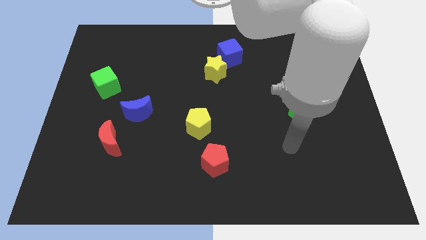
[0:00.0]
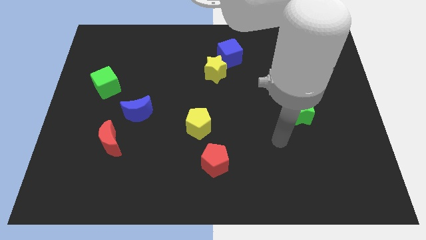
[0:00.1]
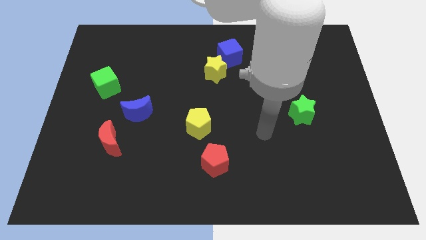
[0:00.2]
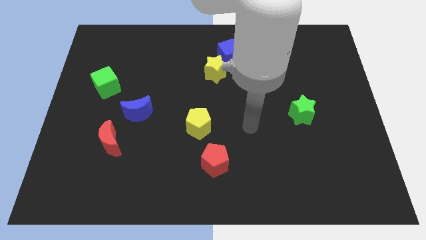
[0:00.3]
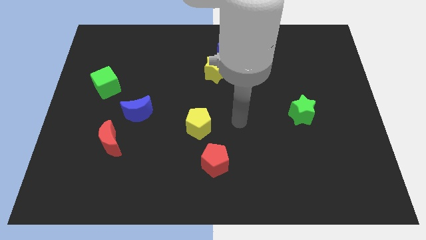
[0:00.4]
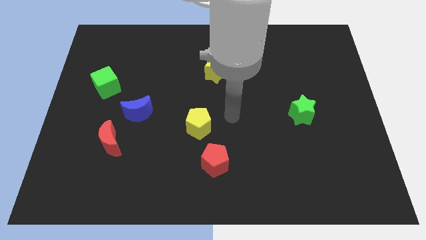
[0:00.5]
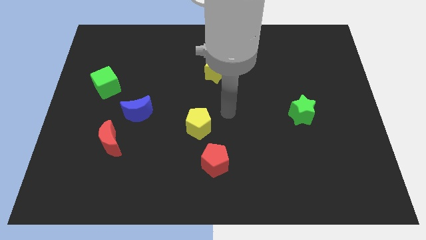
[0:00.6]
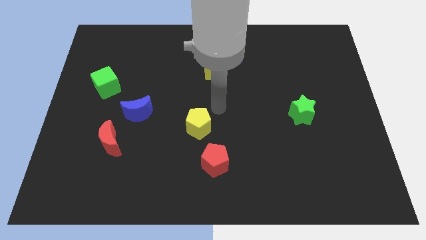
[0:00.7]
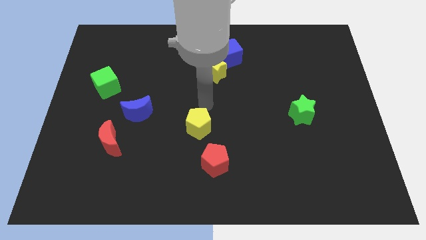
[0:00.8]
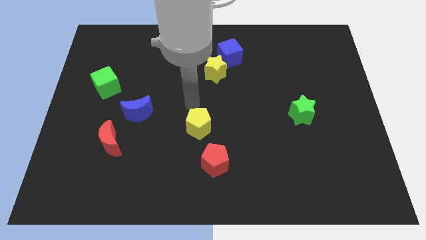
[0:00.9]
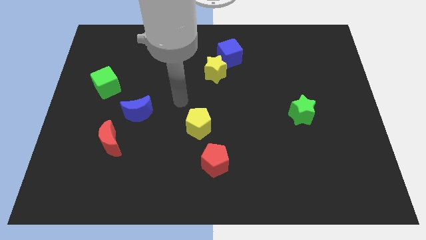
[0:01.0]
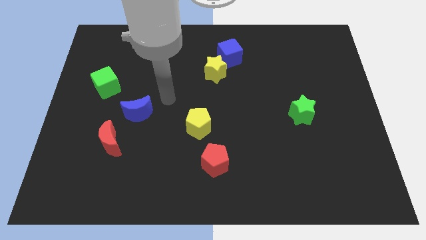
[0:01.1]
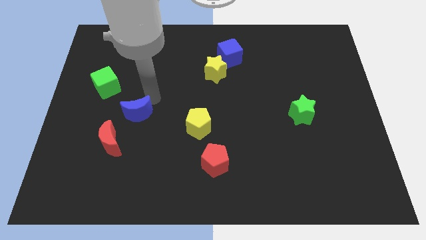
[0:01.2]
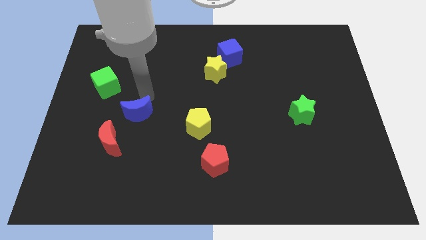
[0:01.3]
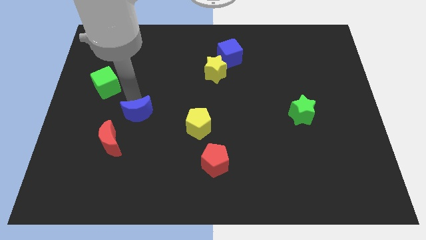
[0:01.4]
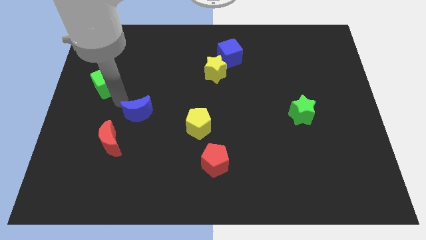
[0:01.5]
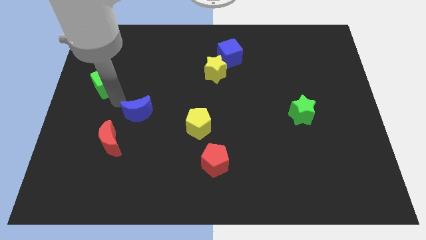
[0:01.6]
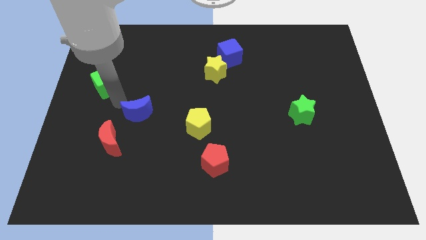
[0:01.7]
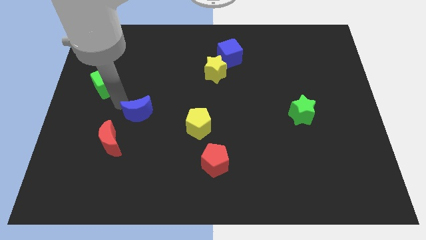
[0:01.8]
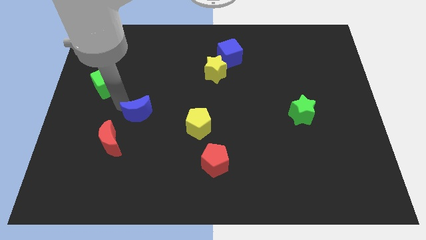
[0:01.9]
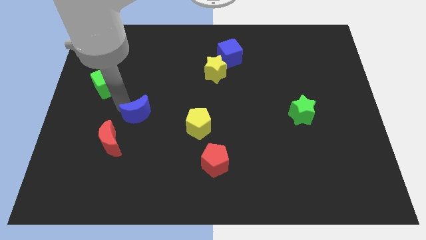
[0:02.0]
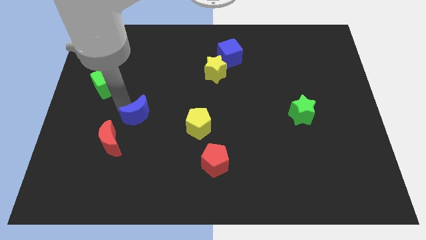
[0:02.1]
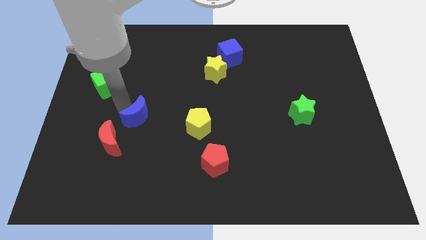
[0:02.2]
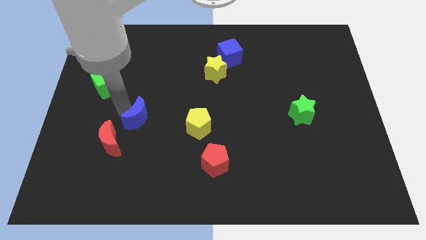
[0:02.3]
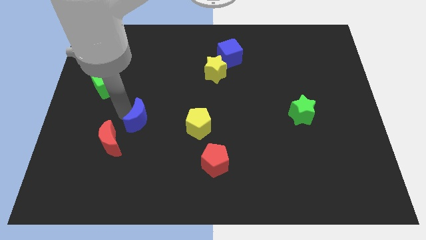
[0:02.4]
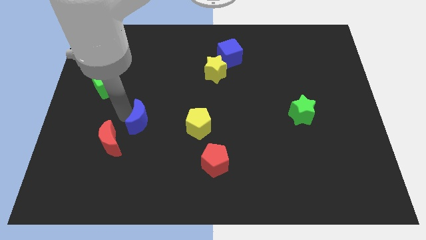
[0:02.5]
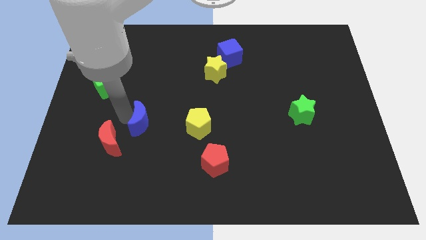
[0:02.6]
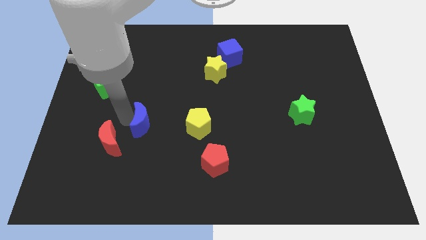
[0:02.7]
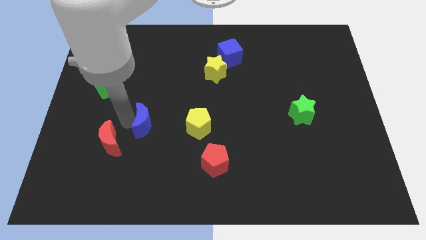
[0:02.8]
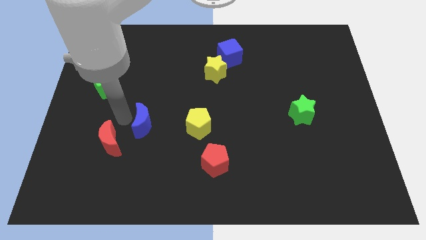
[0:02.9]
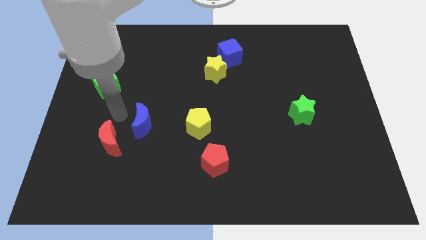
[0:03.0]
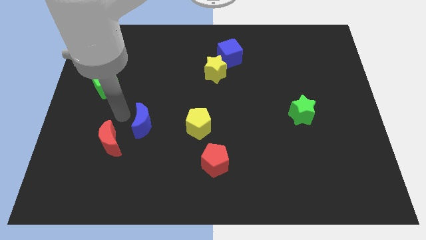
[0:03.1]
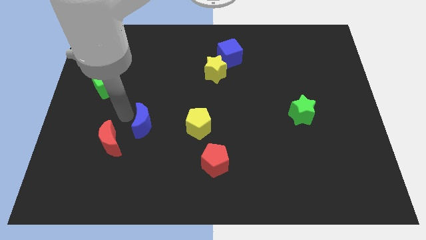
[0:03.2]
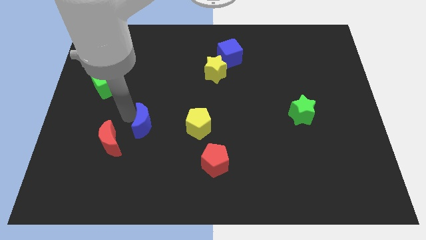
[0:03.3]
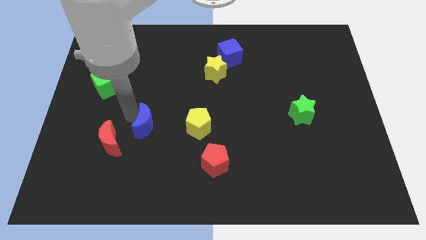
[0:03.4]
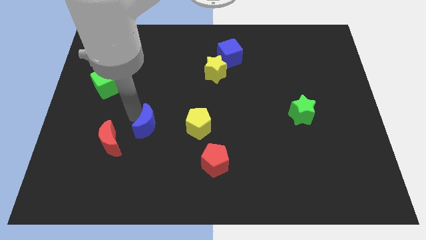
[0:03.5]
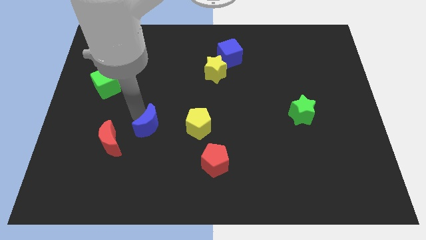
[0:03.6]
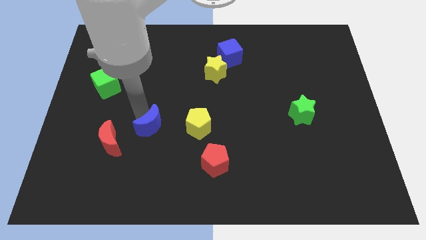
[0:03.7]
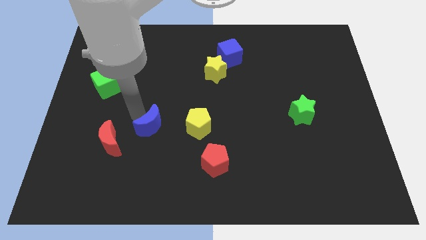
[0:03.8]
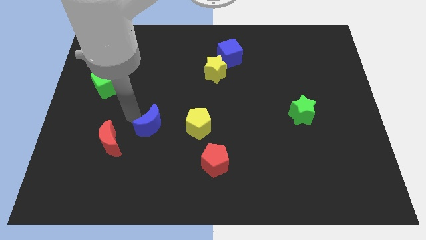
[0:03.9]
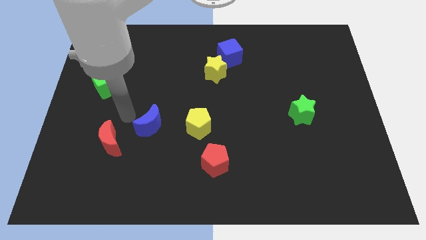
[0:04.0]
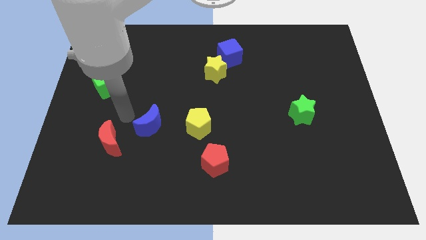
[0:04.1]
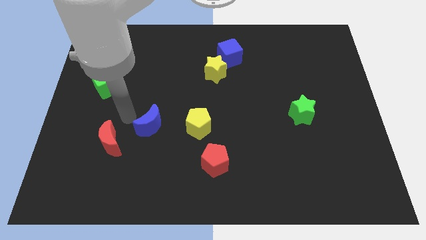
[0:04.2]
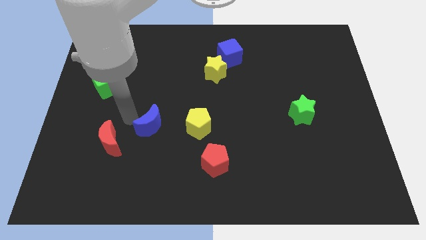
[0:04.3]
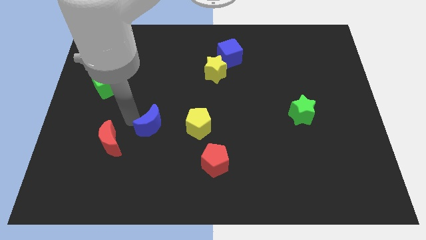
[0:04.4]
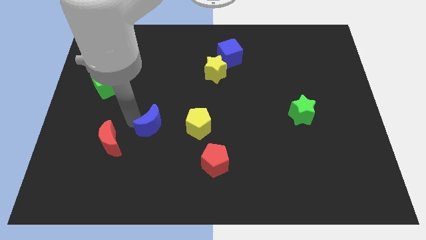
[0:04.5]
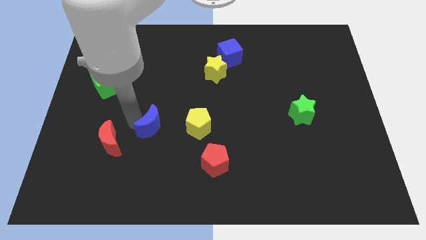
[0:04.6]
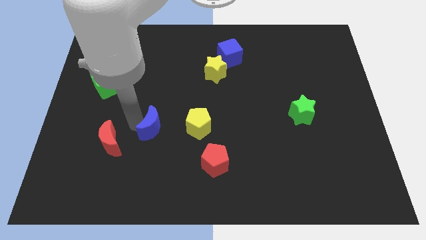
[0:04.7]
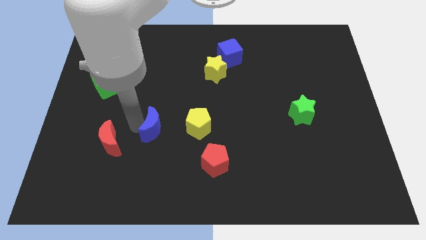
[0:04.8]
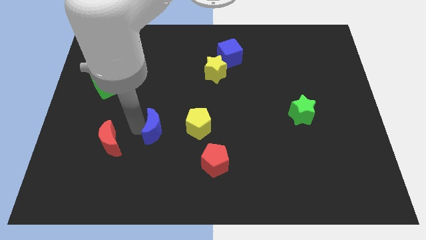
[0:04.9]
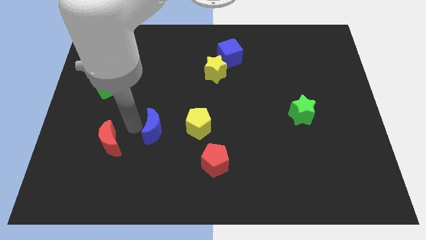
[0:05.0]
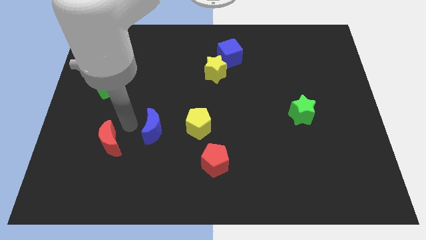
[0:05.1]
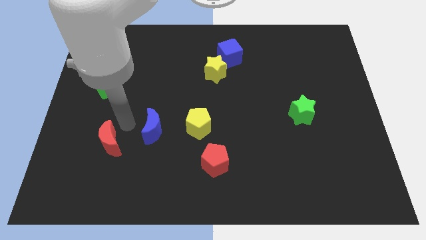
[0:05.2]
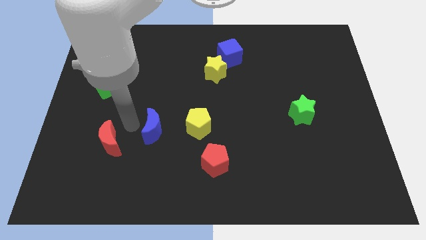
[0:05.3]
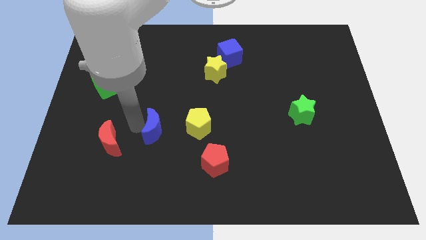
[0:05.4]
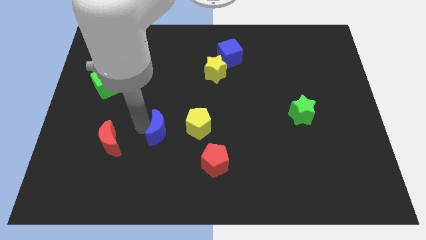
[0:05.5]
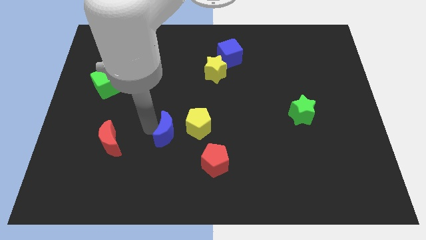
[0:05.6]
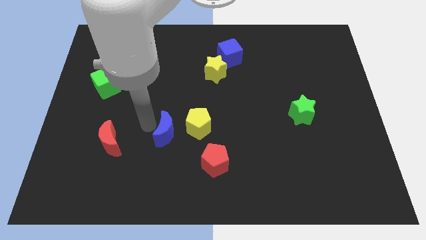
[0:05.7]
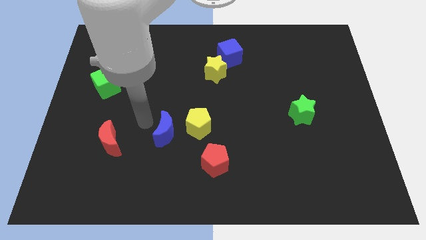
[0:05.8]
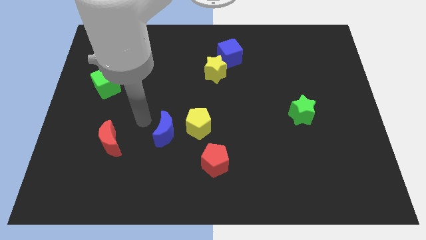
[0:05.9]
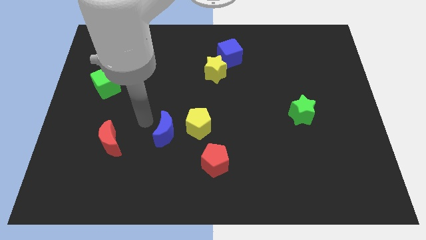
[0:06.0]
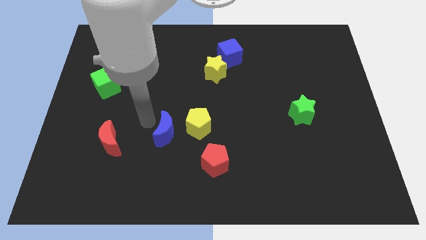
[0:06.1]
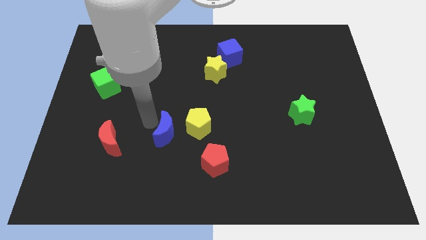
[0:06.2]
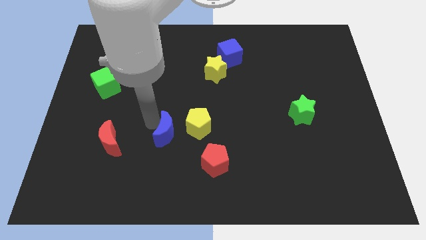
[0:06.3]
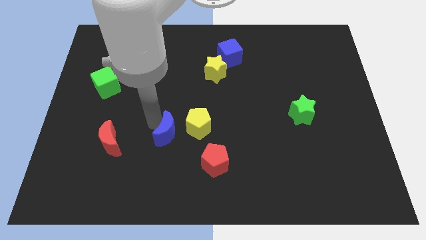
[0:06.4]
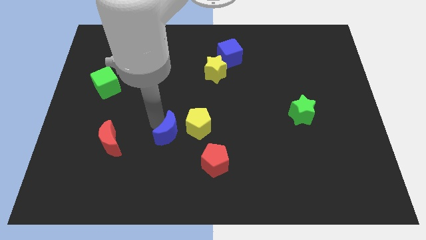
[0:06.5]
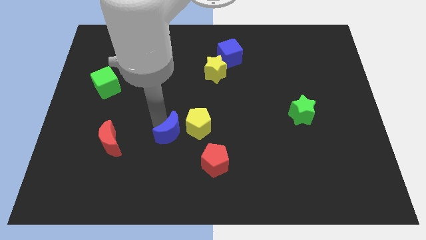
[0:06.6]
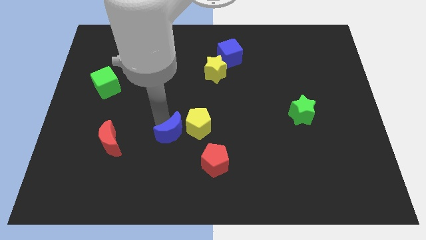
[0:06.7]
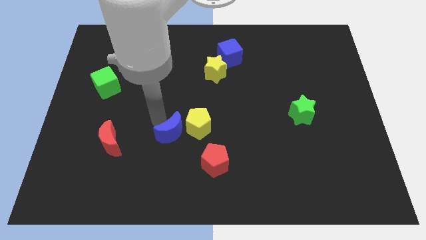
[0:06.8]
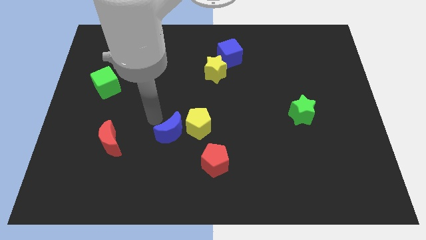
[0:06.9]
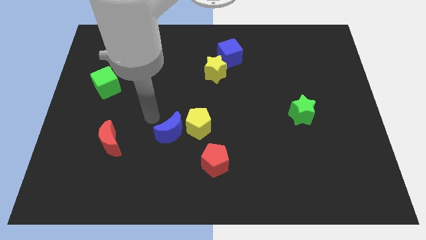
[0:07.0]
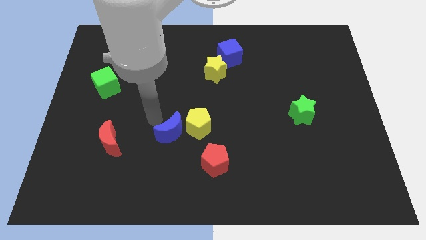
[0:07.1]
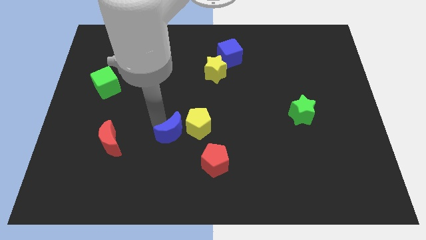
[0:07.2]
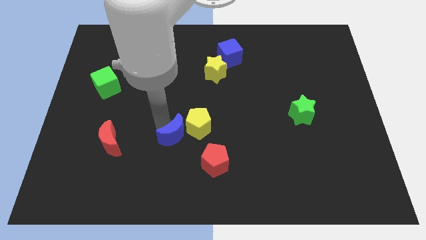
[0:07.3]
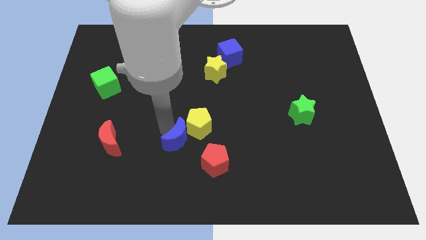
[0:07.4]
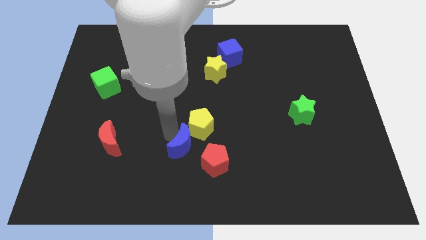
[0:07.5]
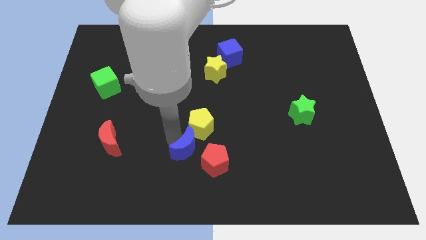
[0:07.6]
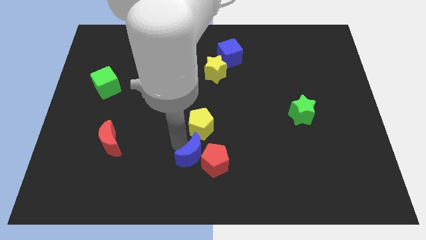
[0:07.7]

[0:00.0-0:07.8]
push the blue moon close to the red pentagon
